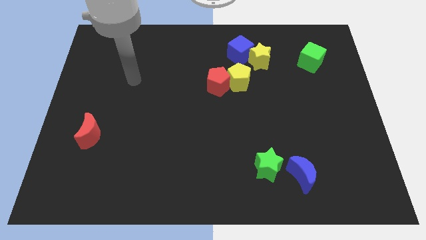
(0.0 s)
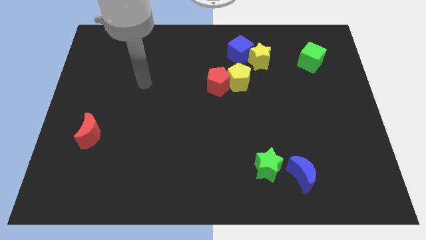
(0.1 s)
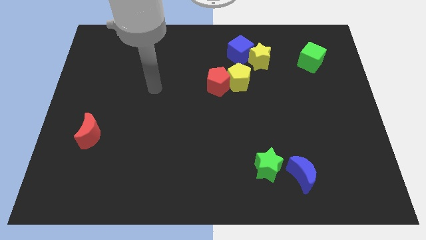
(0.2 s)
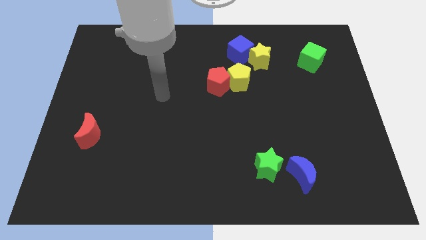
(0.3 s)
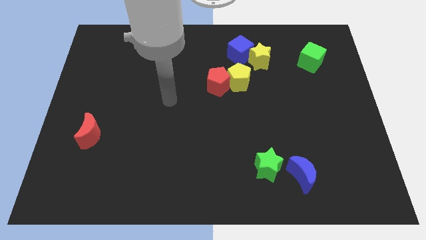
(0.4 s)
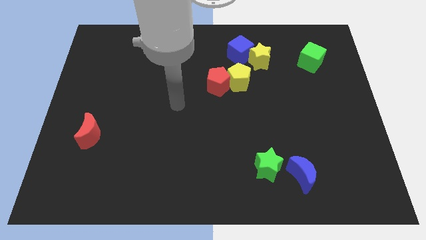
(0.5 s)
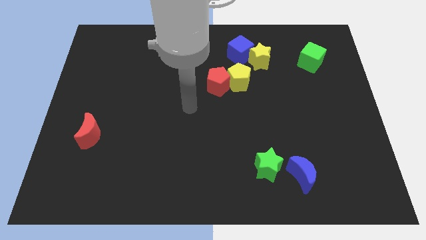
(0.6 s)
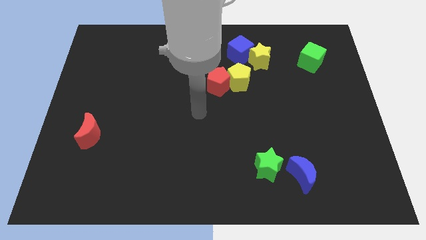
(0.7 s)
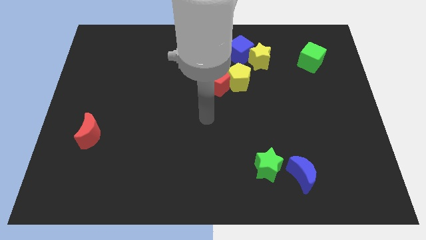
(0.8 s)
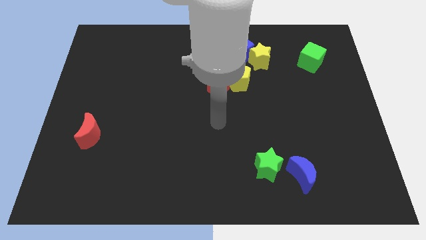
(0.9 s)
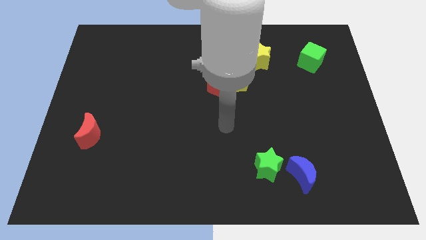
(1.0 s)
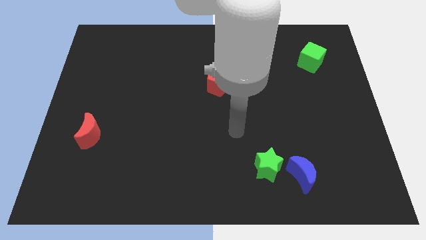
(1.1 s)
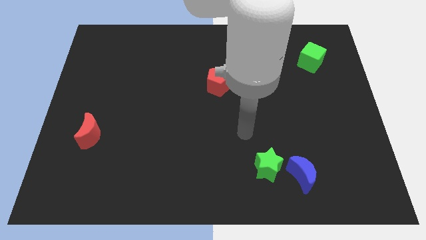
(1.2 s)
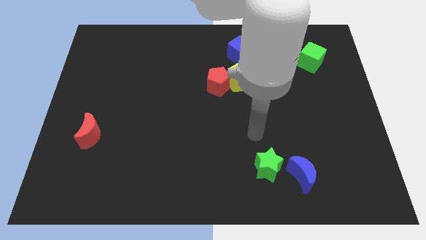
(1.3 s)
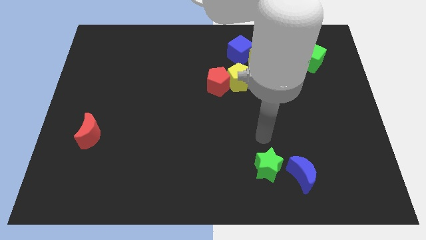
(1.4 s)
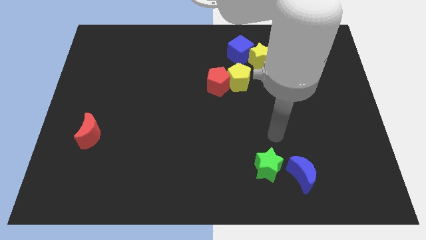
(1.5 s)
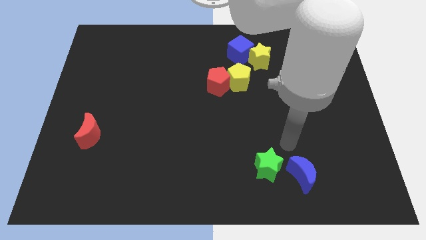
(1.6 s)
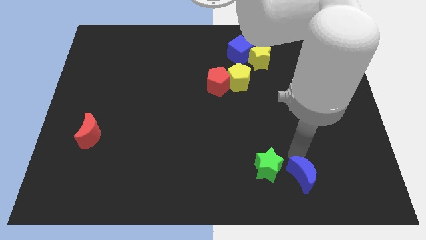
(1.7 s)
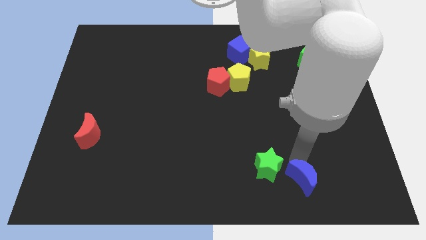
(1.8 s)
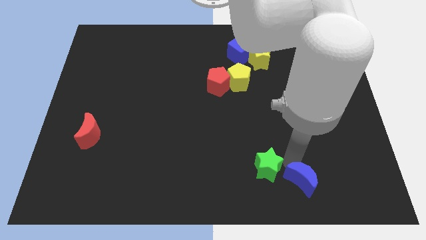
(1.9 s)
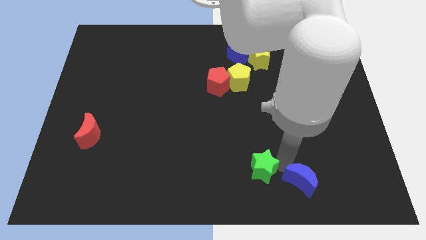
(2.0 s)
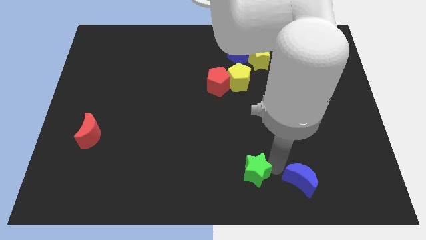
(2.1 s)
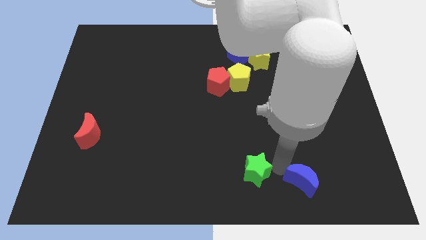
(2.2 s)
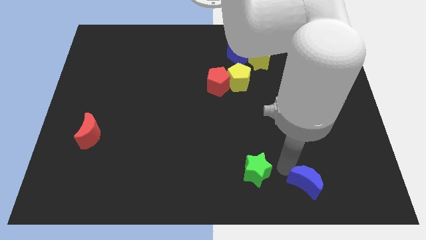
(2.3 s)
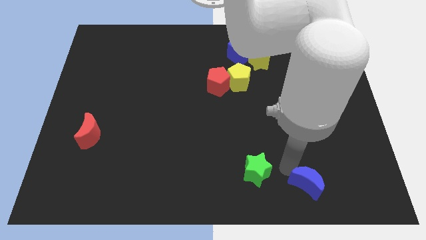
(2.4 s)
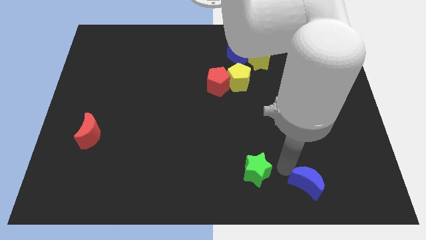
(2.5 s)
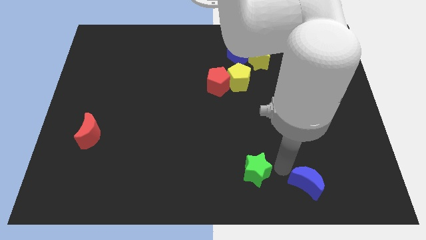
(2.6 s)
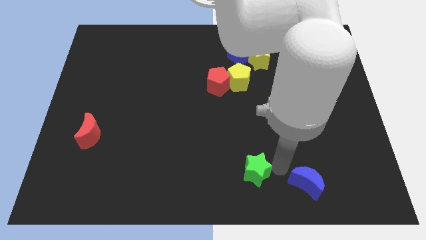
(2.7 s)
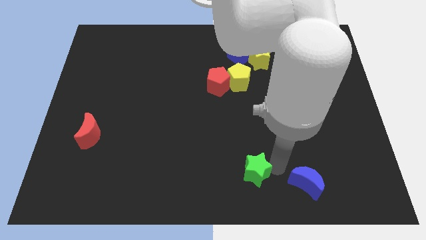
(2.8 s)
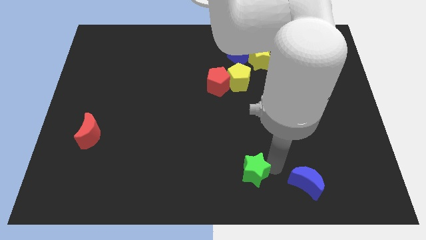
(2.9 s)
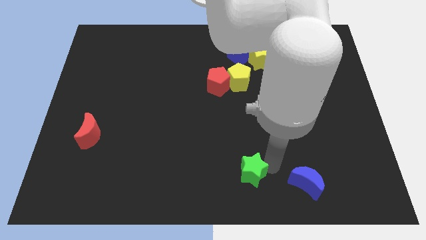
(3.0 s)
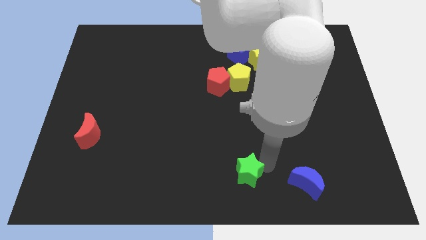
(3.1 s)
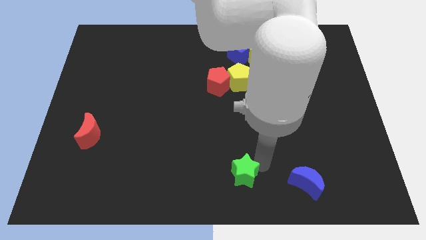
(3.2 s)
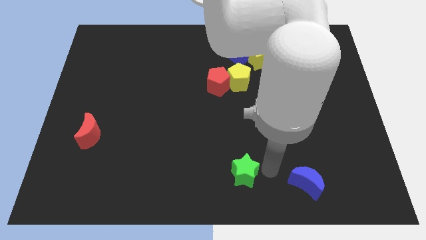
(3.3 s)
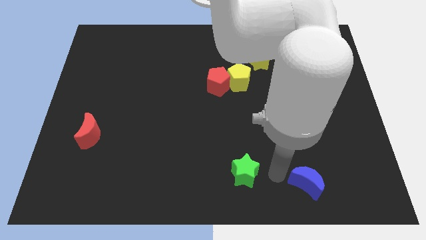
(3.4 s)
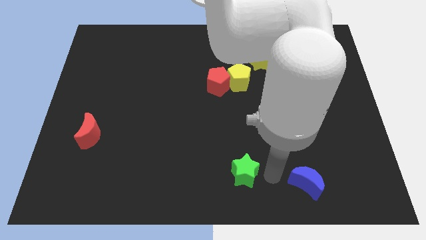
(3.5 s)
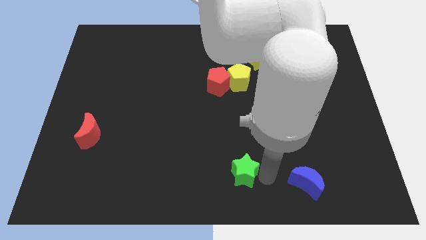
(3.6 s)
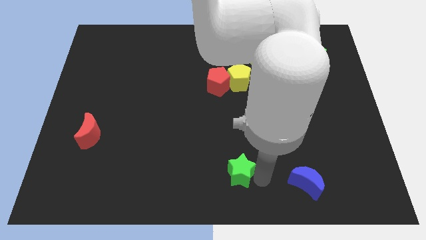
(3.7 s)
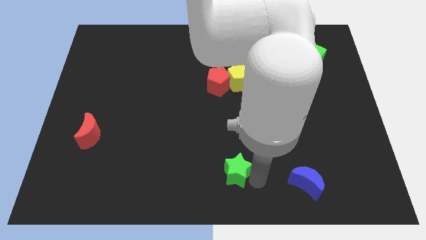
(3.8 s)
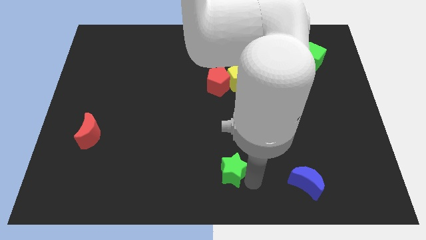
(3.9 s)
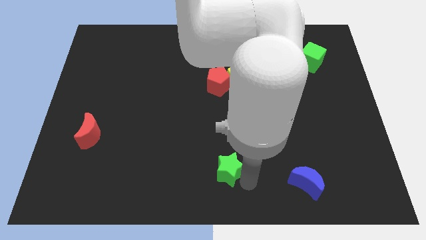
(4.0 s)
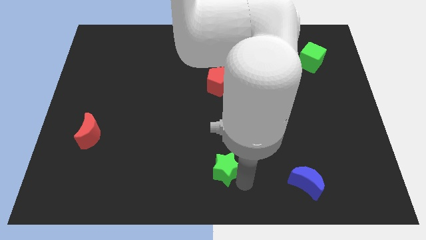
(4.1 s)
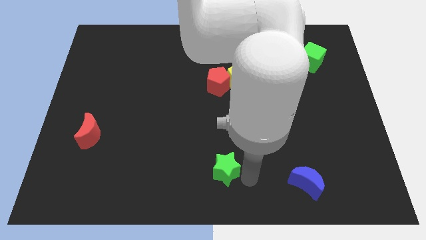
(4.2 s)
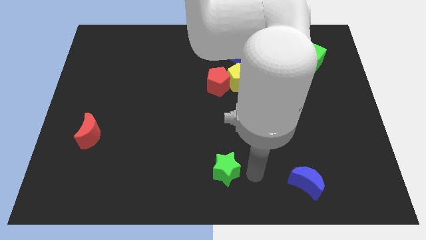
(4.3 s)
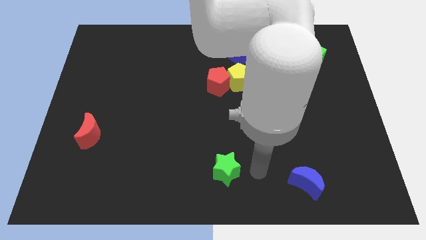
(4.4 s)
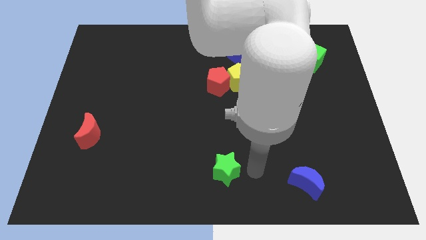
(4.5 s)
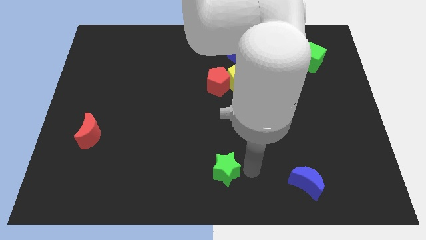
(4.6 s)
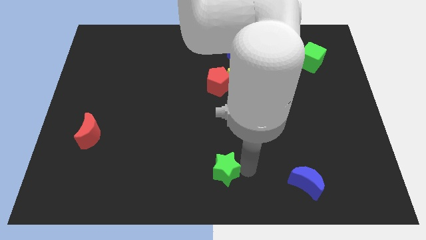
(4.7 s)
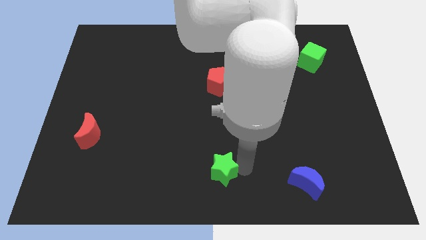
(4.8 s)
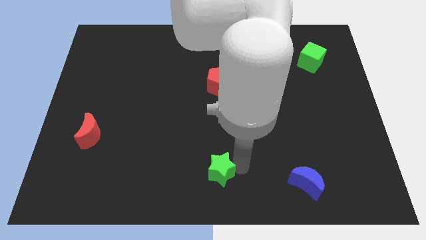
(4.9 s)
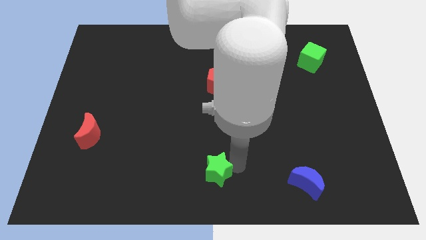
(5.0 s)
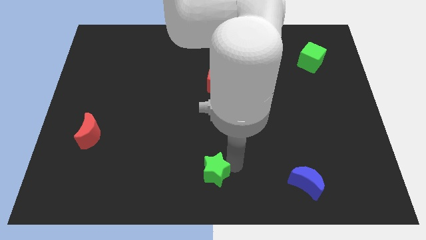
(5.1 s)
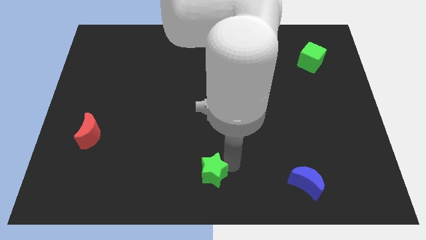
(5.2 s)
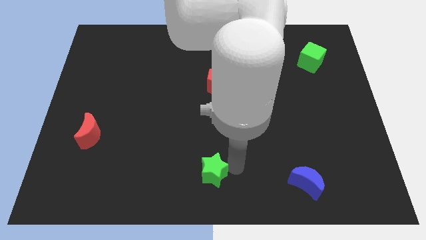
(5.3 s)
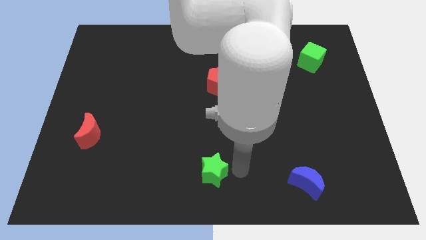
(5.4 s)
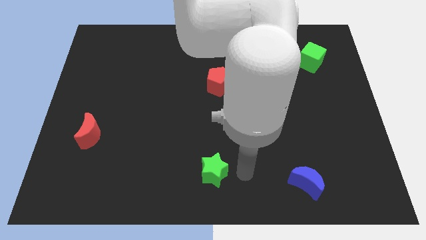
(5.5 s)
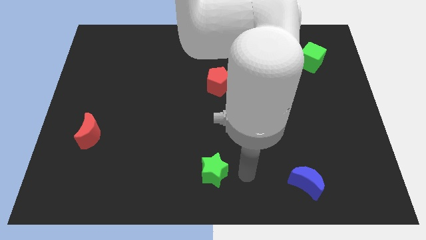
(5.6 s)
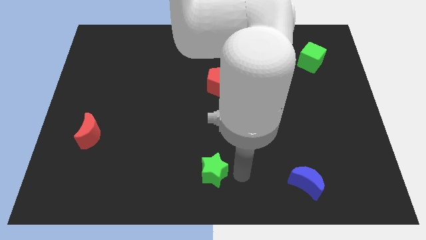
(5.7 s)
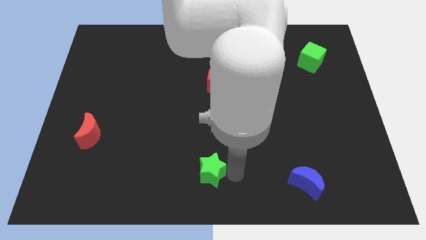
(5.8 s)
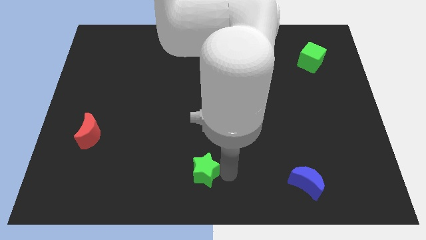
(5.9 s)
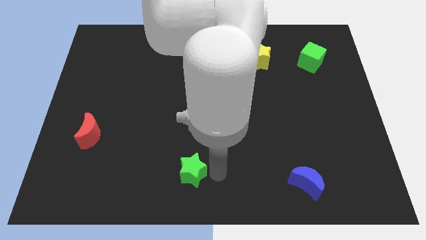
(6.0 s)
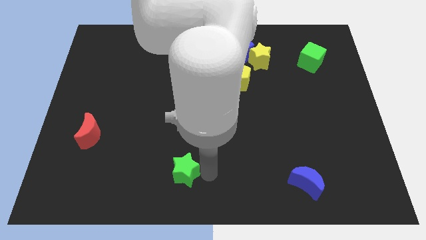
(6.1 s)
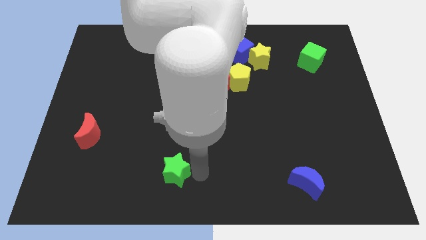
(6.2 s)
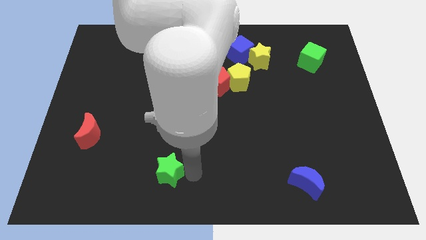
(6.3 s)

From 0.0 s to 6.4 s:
push the green star left

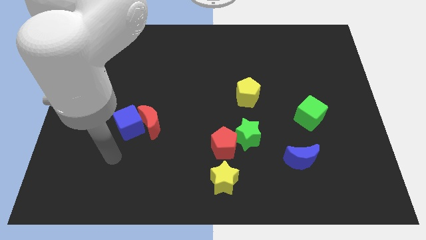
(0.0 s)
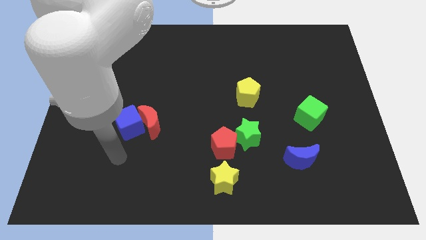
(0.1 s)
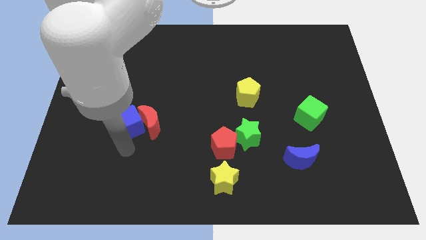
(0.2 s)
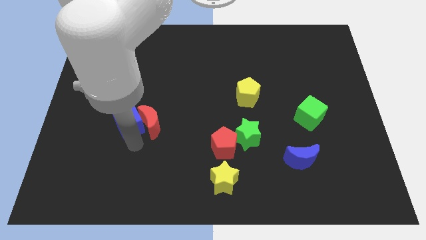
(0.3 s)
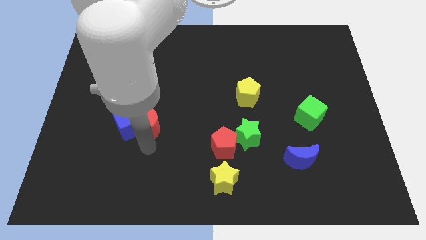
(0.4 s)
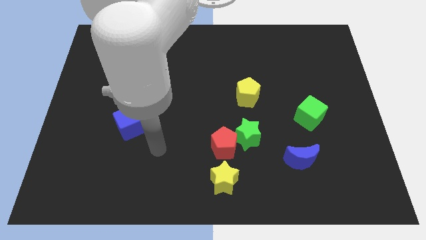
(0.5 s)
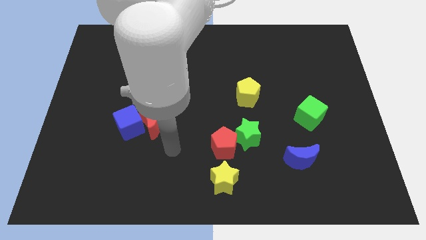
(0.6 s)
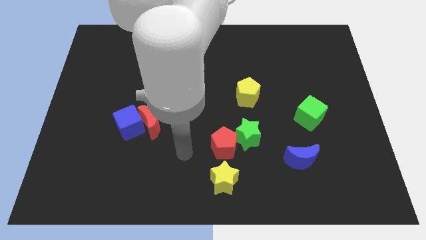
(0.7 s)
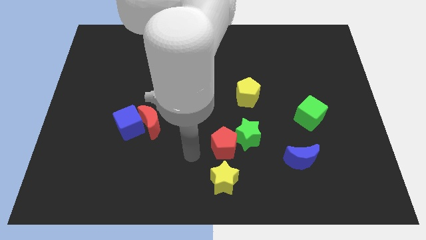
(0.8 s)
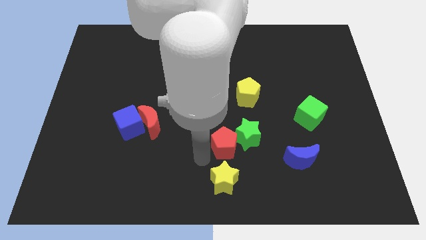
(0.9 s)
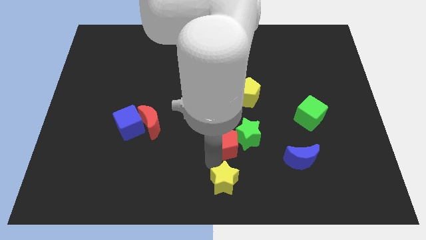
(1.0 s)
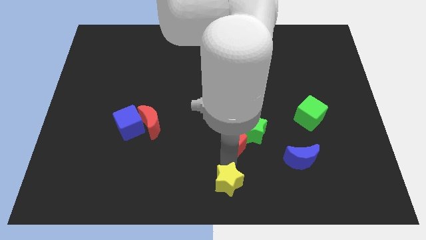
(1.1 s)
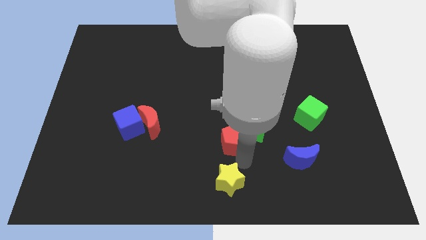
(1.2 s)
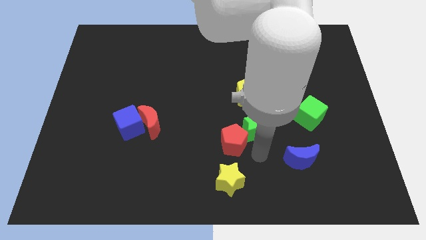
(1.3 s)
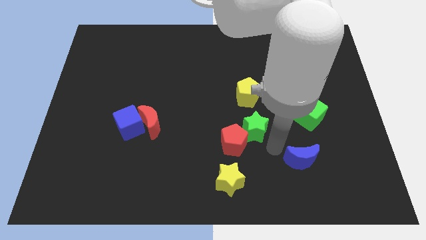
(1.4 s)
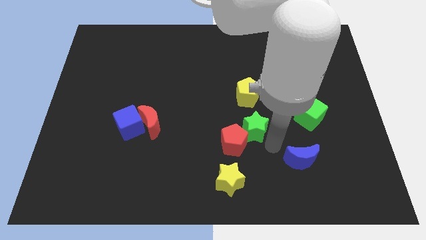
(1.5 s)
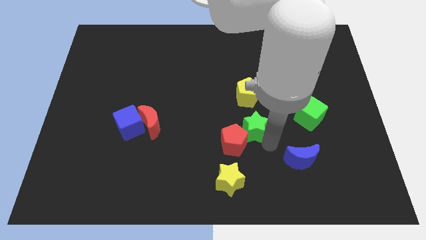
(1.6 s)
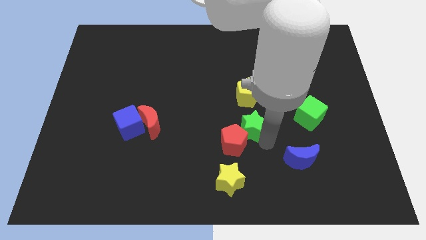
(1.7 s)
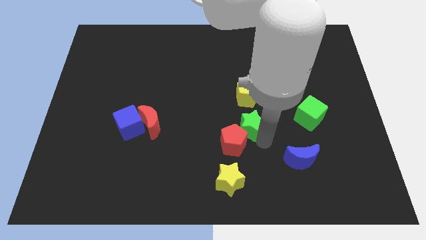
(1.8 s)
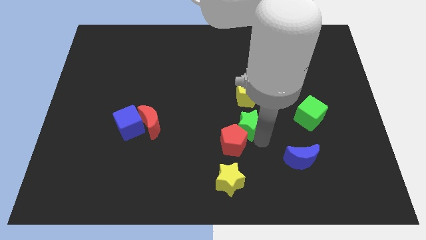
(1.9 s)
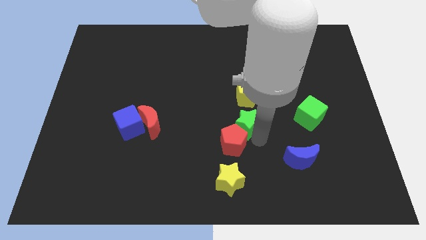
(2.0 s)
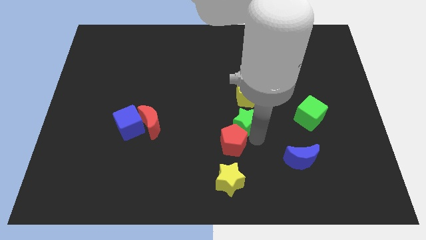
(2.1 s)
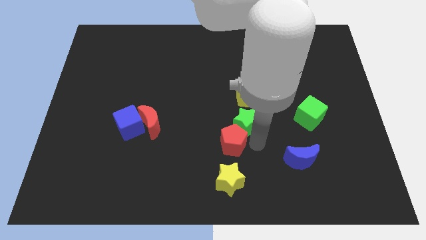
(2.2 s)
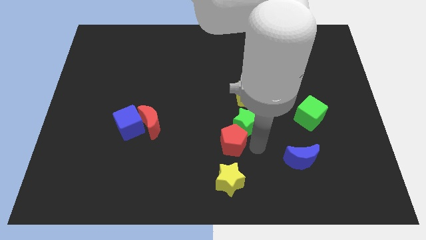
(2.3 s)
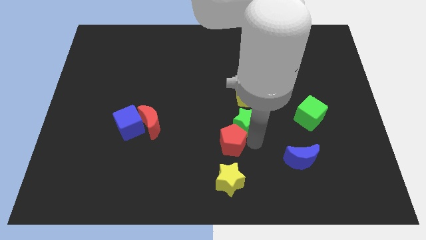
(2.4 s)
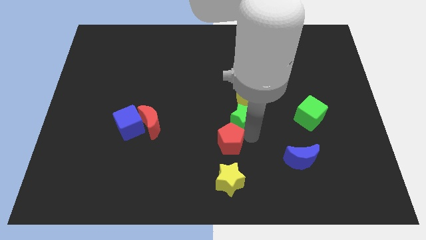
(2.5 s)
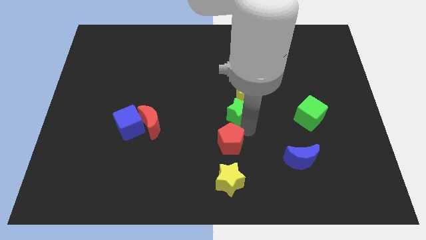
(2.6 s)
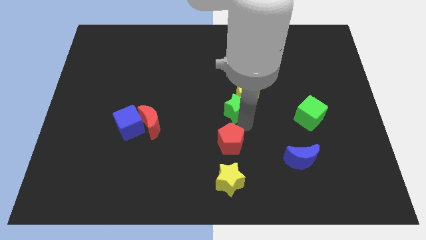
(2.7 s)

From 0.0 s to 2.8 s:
slightly move the green star upwards
